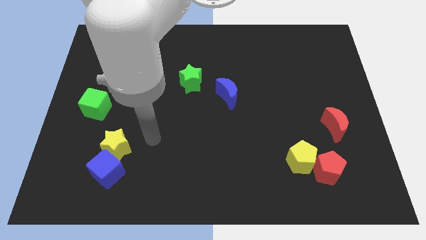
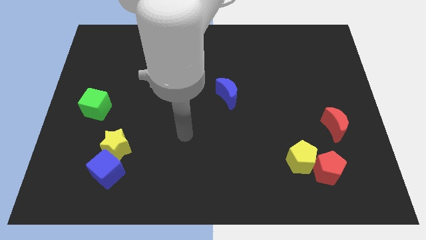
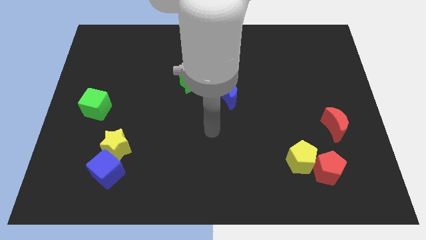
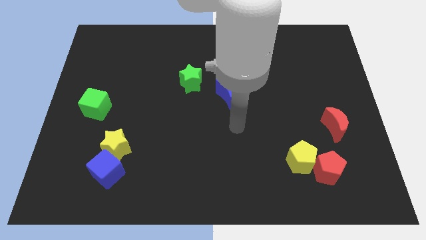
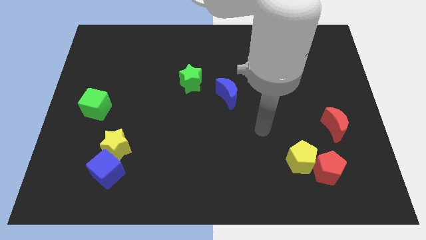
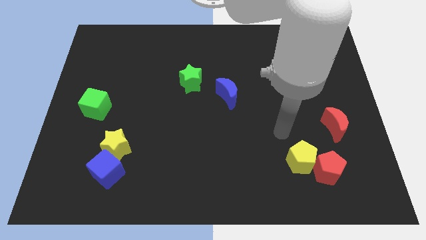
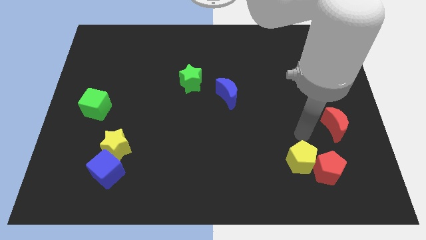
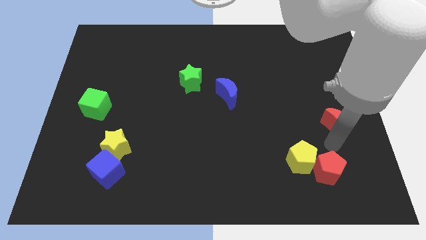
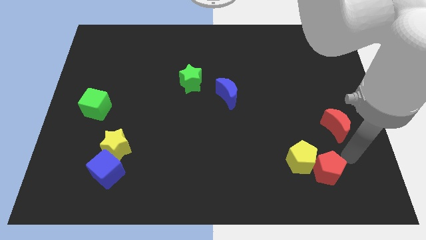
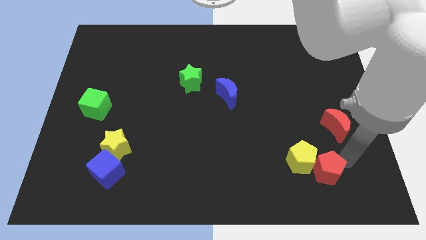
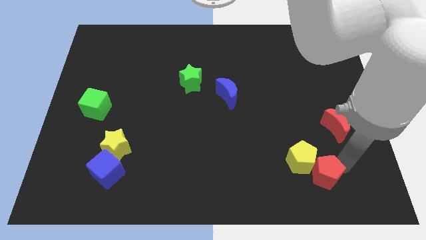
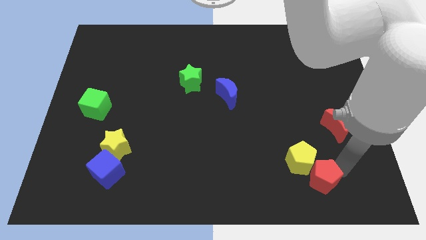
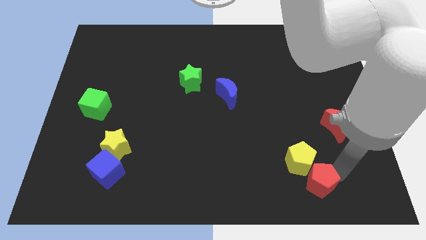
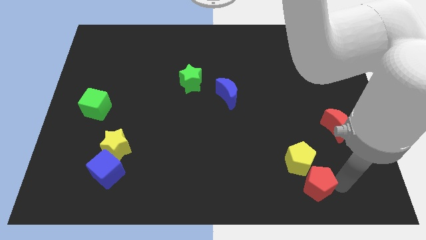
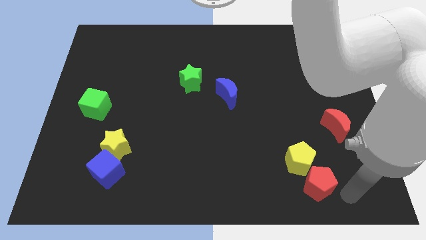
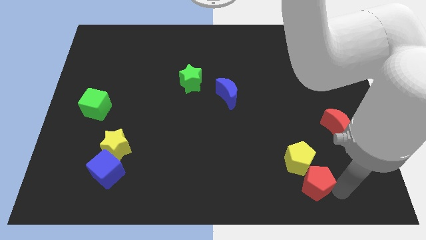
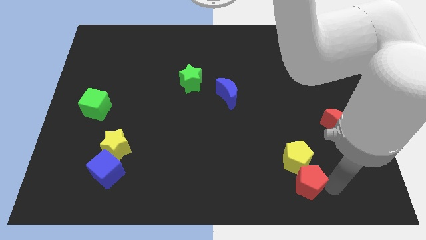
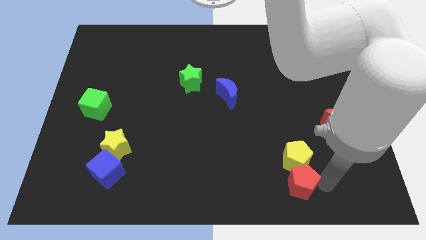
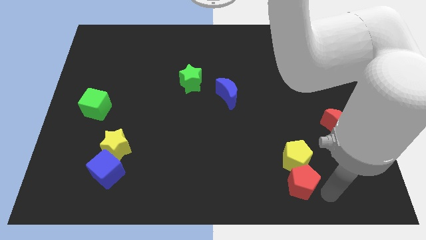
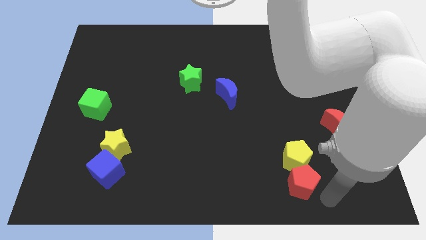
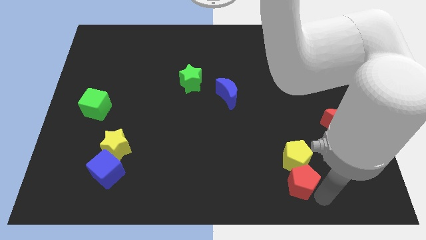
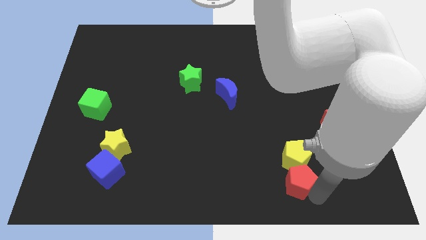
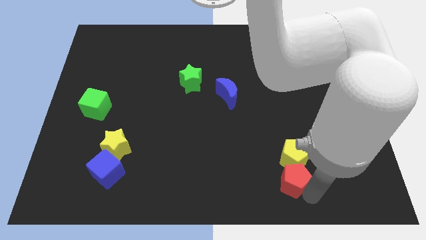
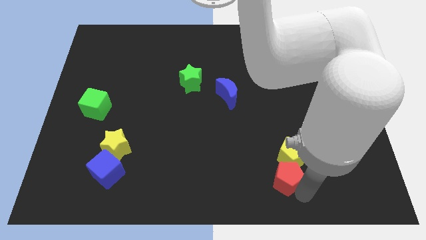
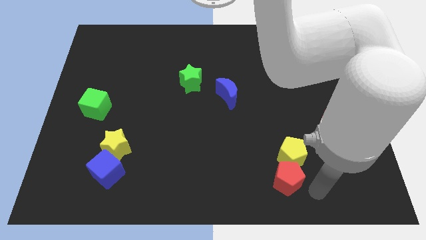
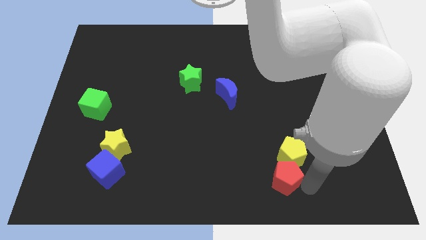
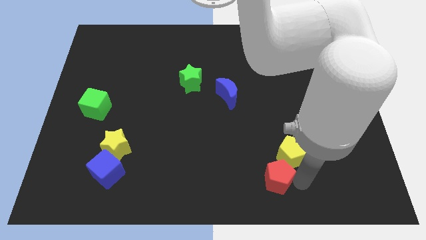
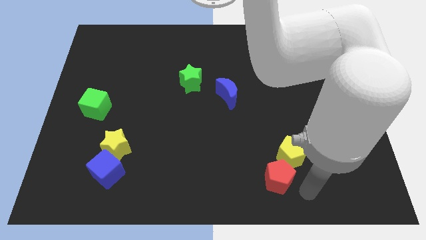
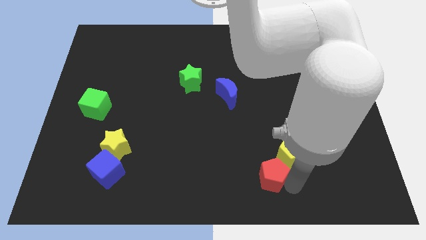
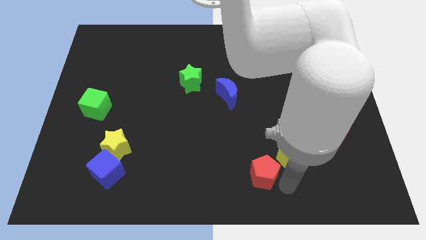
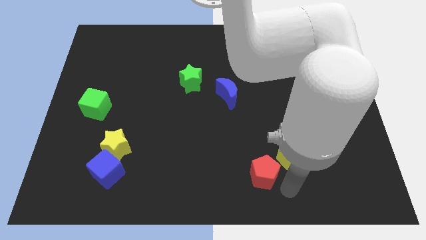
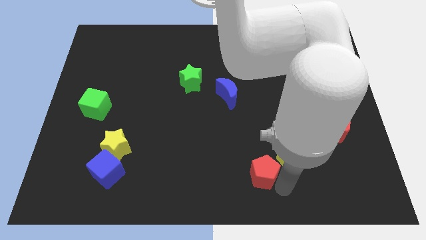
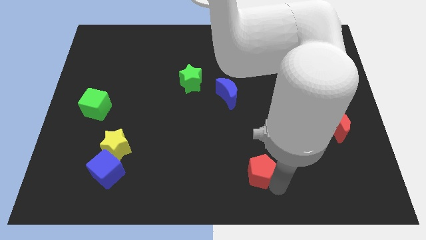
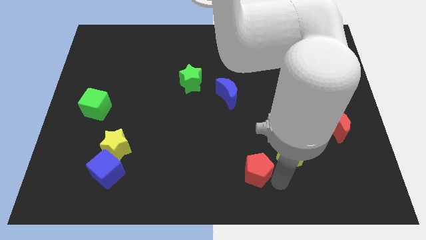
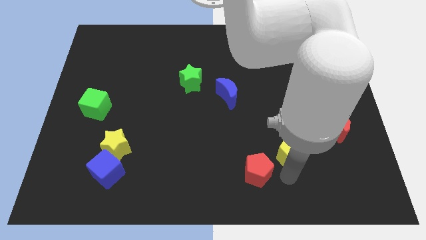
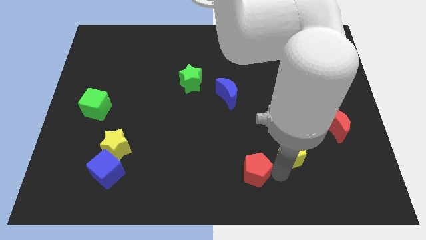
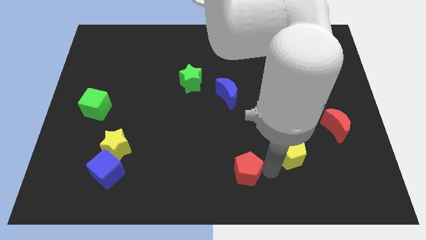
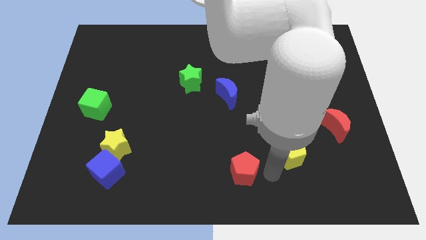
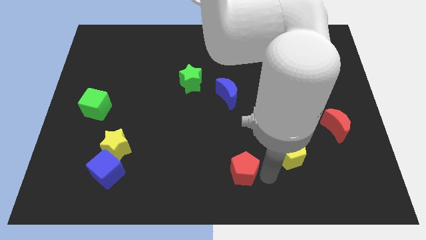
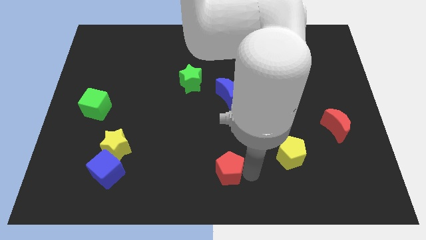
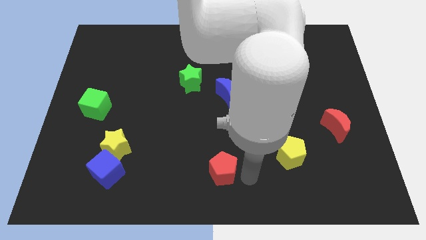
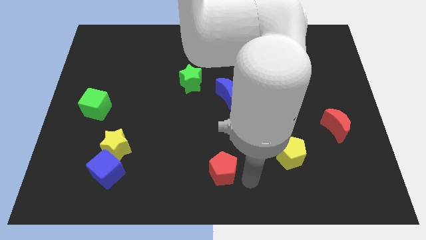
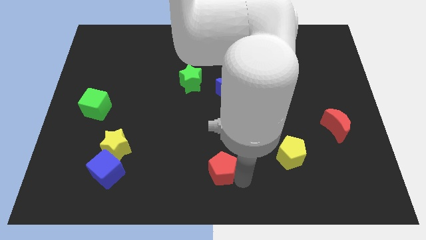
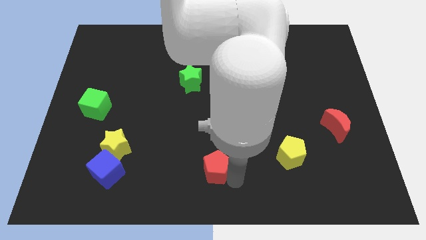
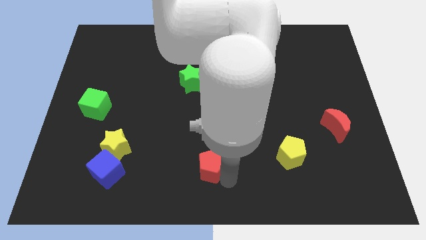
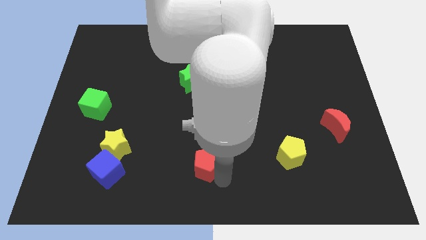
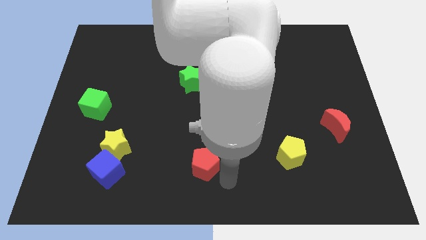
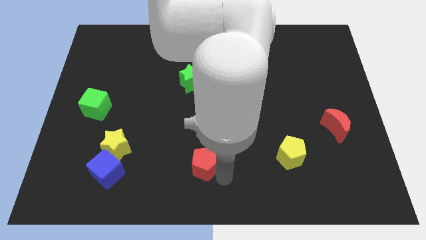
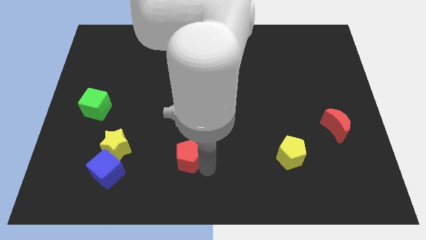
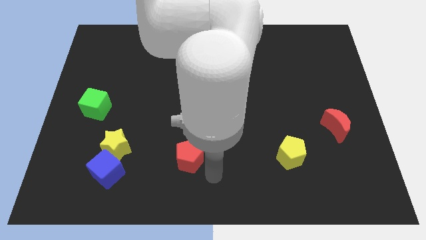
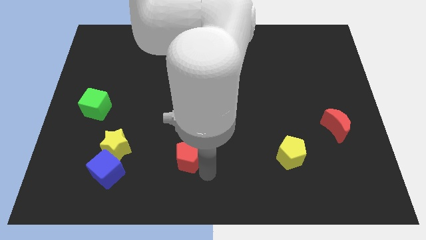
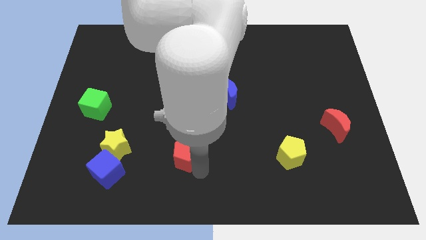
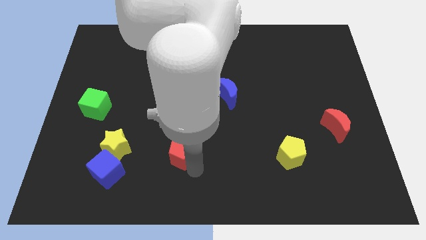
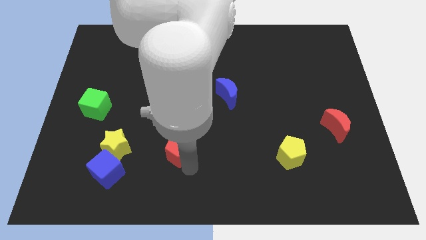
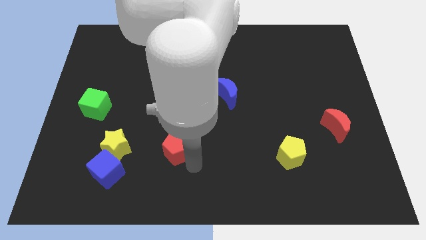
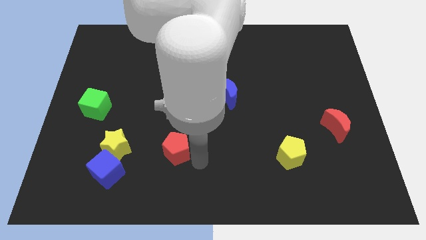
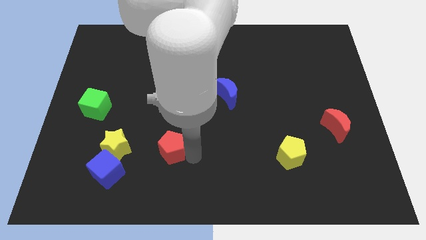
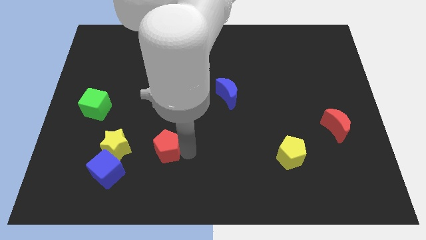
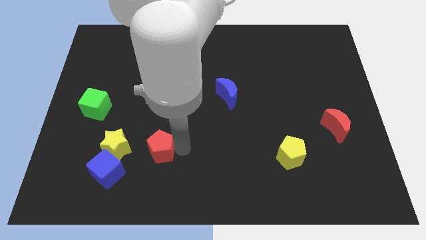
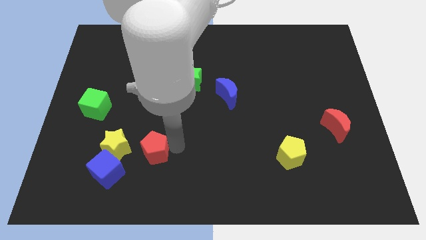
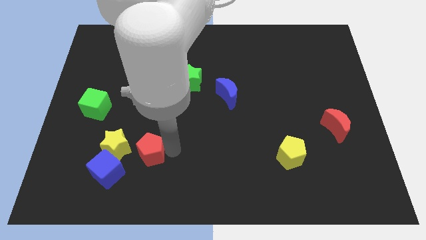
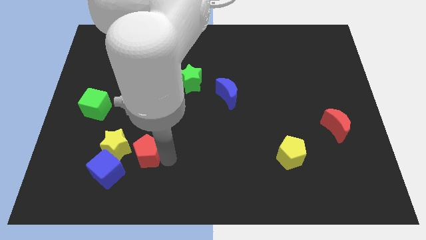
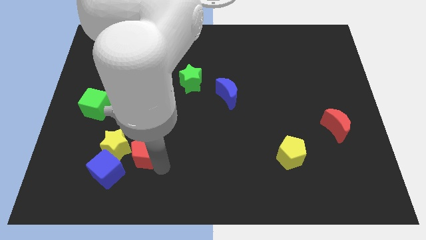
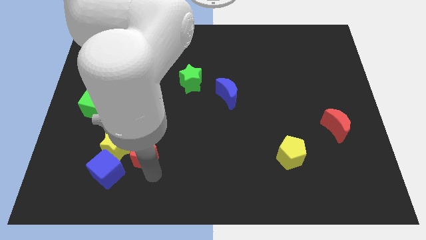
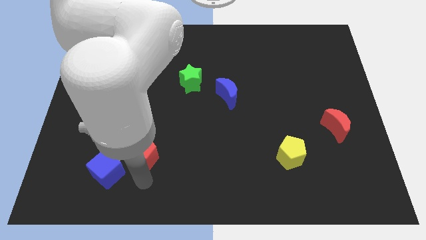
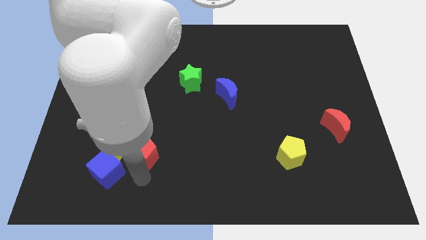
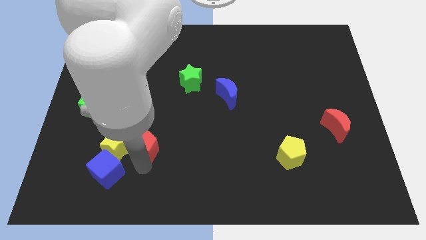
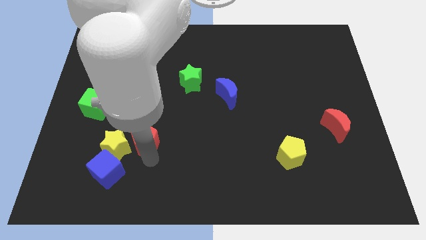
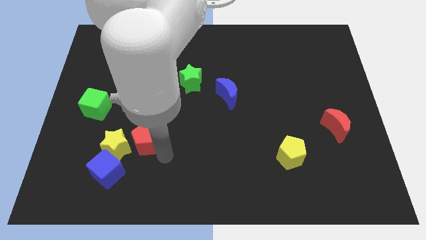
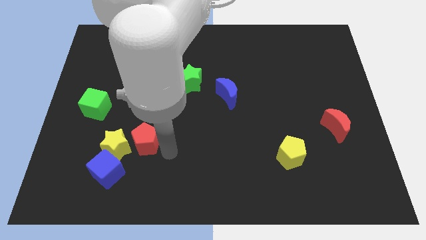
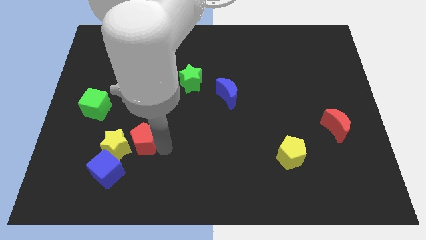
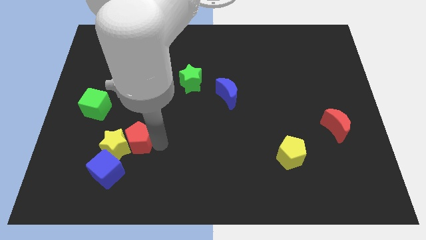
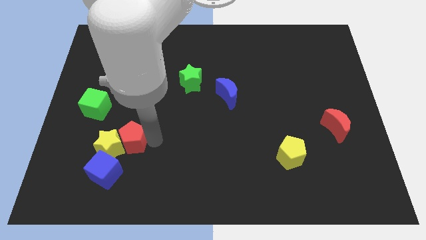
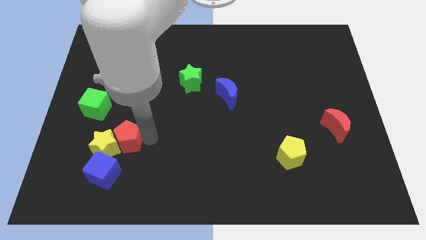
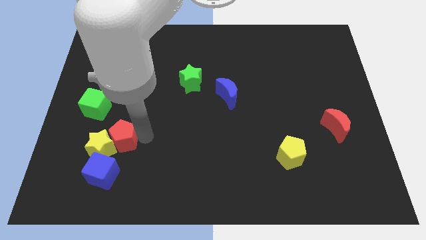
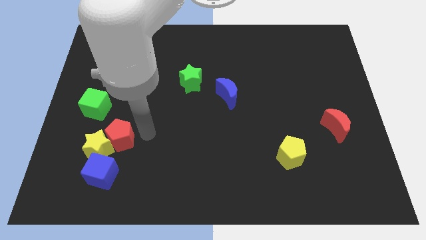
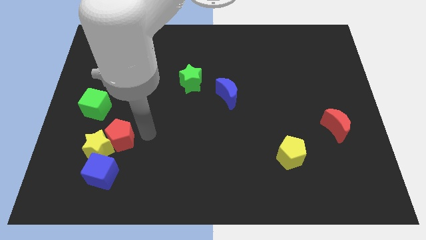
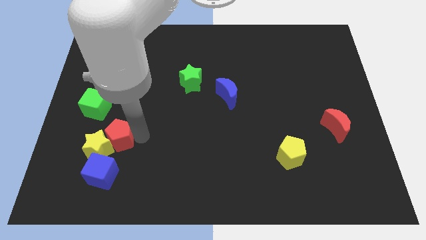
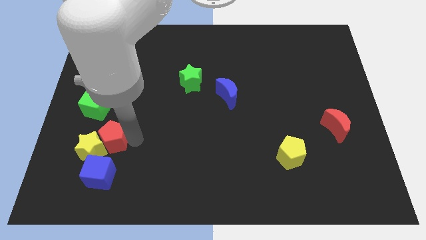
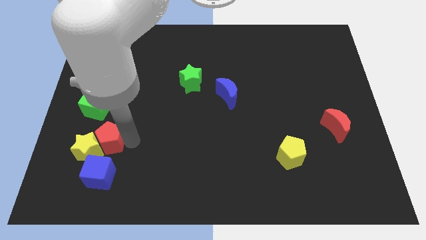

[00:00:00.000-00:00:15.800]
put the red pentagon to the bottom side of the green cube
